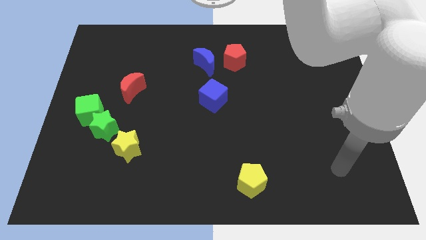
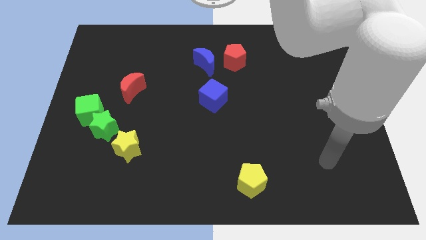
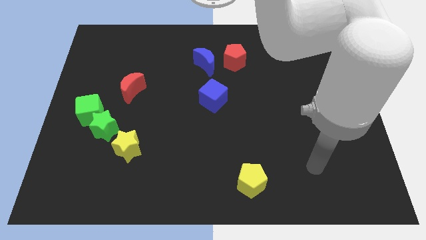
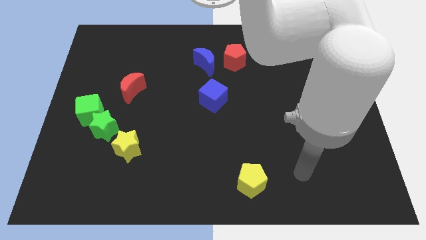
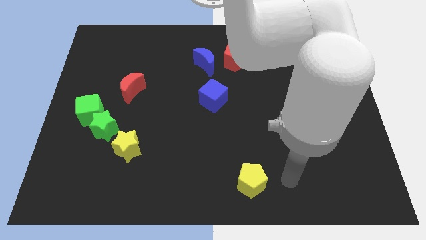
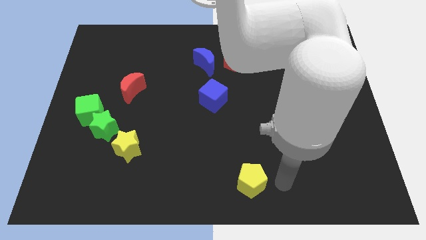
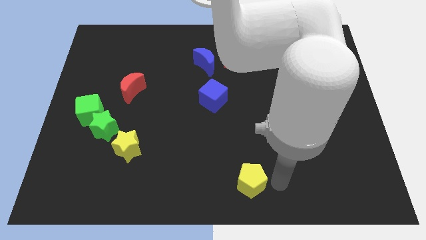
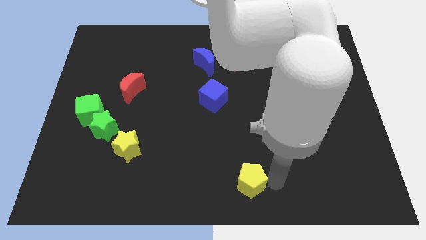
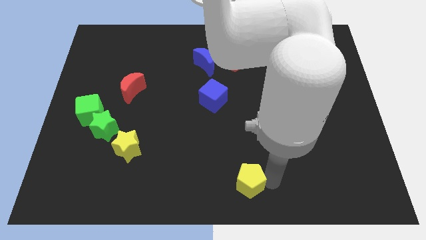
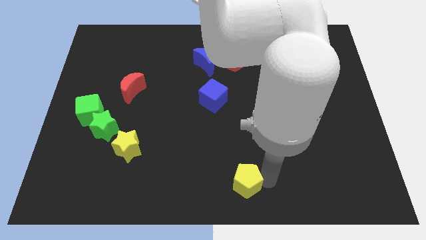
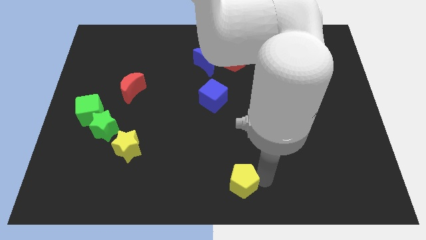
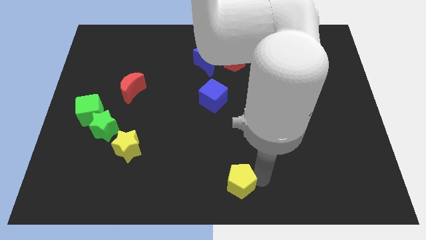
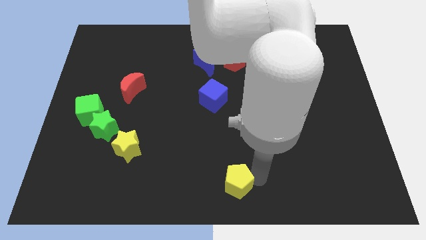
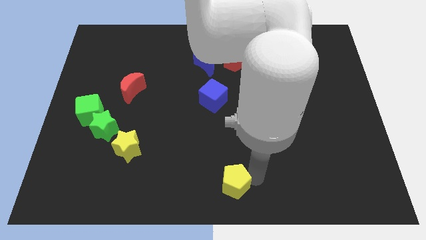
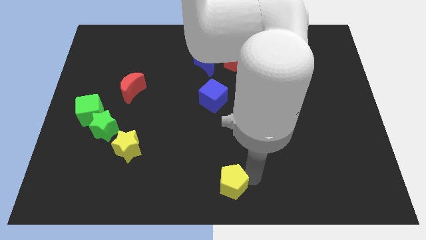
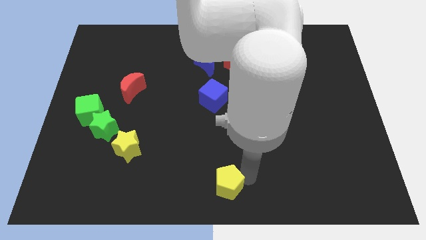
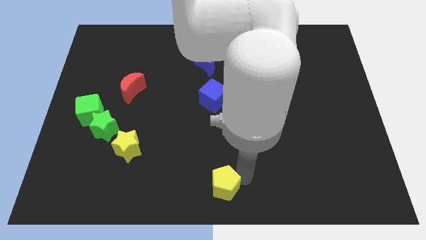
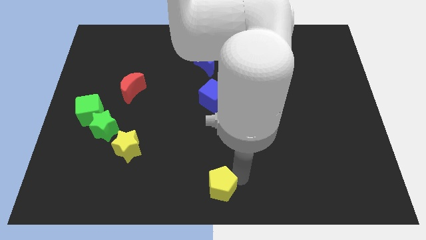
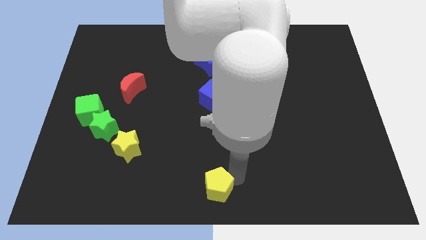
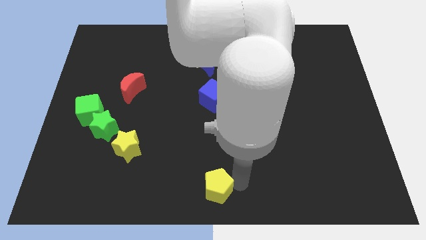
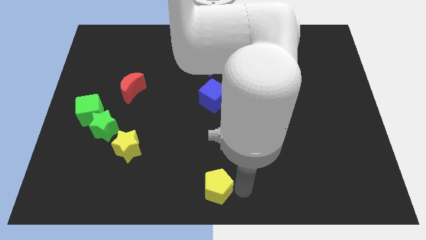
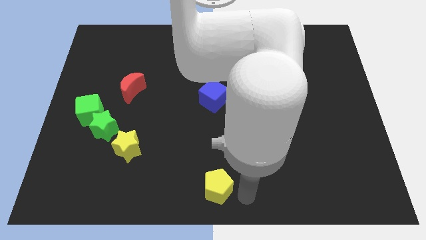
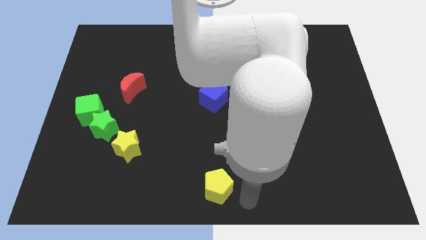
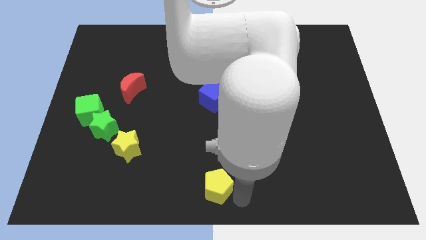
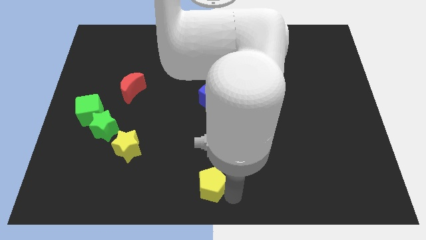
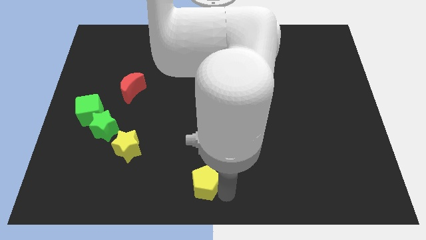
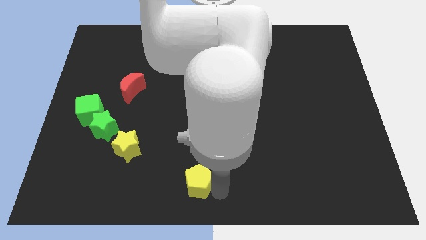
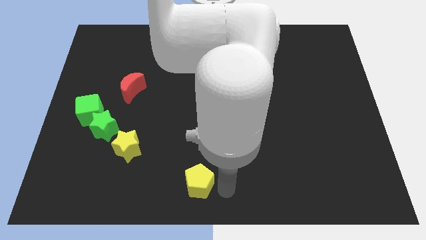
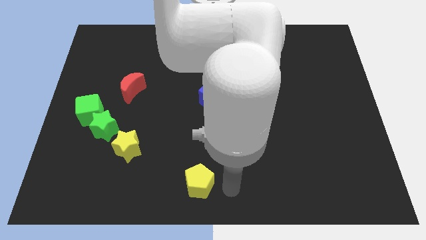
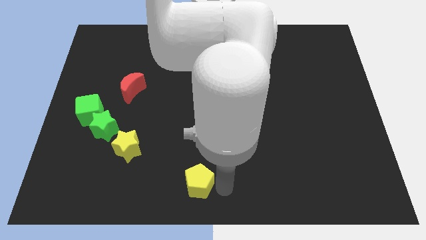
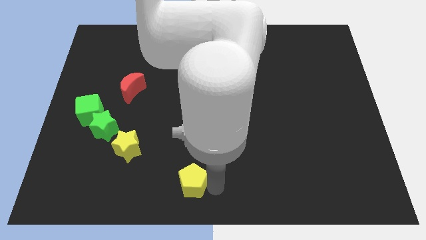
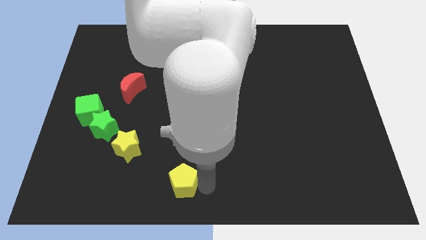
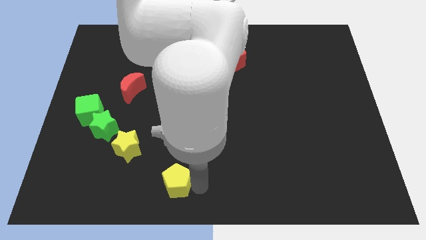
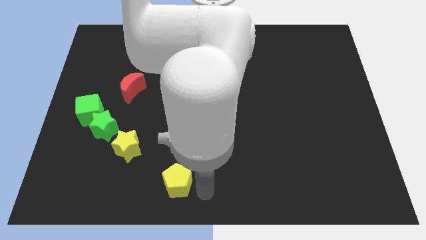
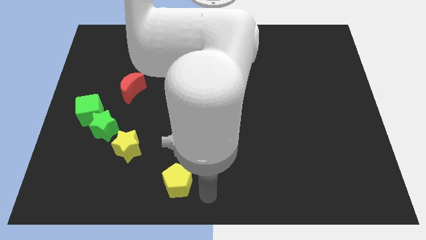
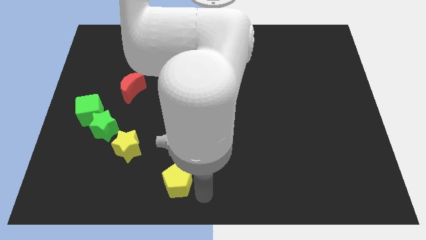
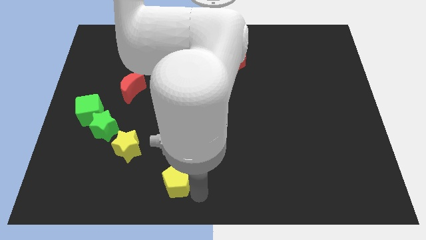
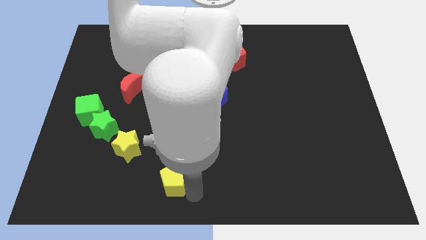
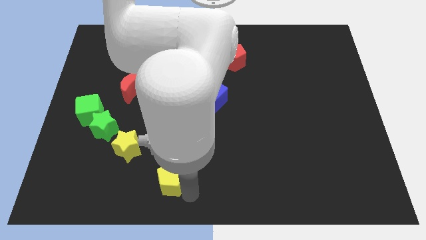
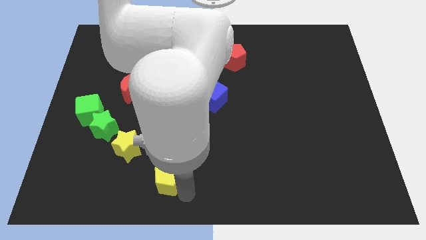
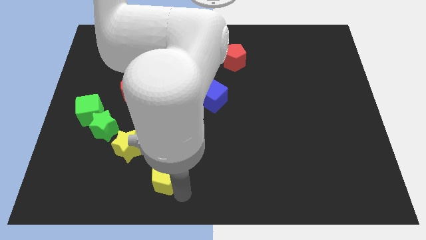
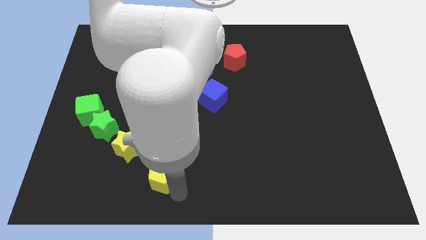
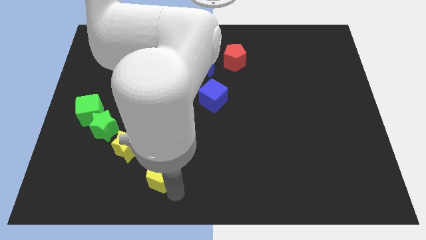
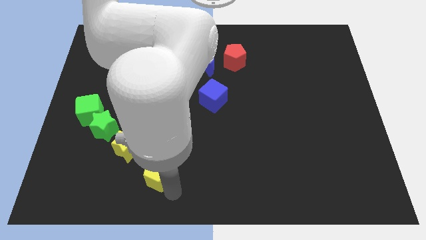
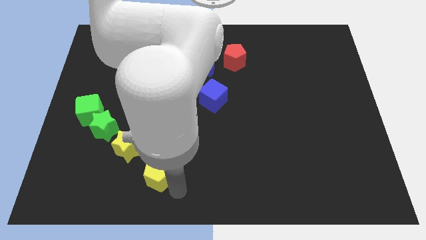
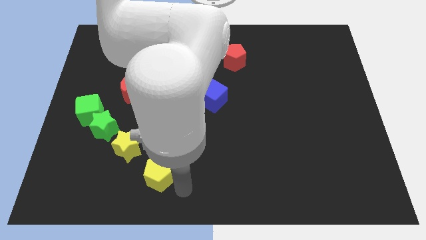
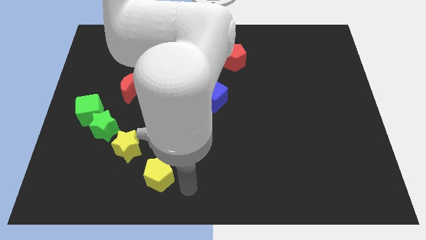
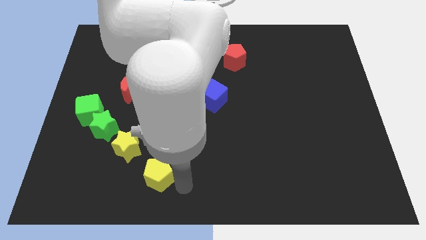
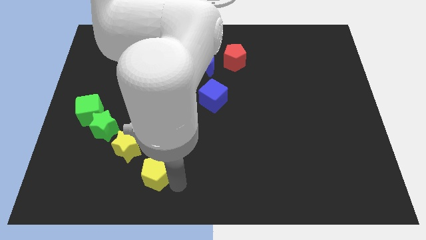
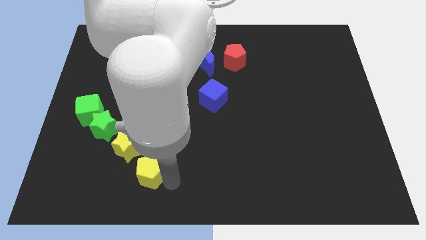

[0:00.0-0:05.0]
push the yellow pentagon left

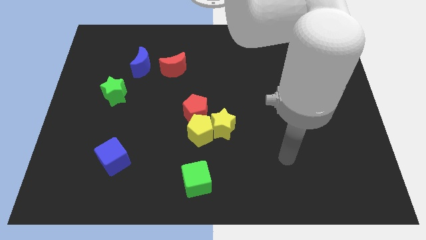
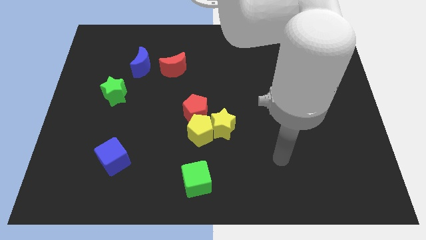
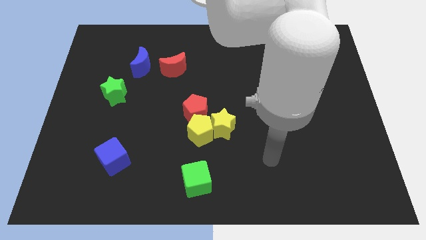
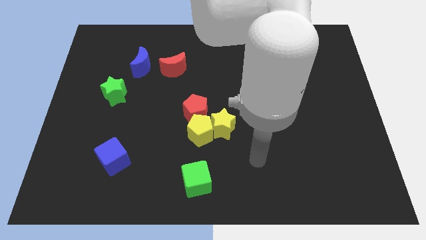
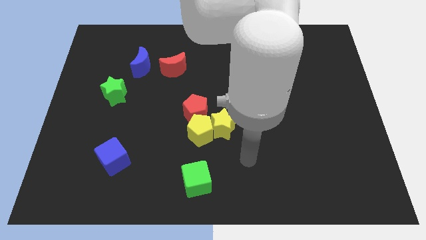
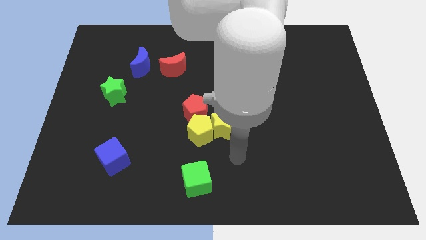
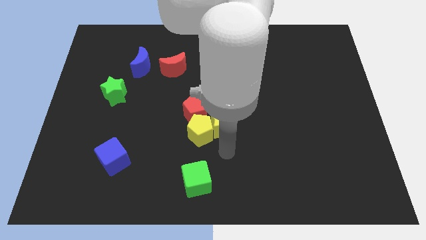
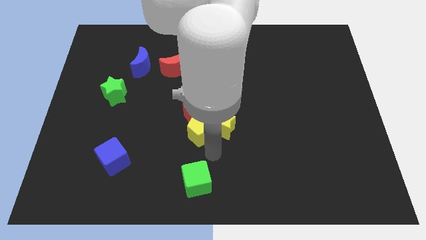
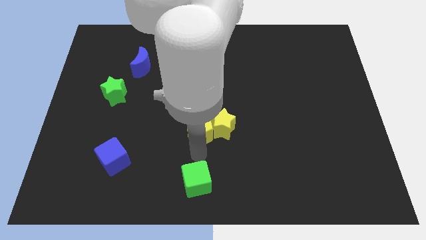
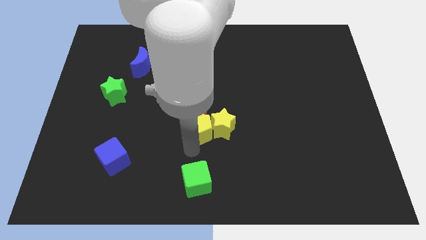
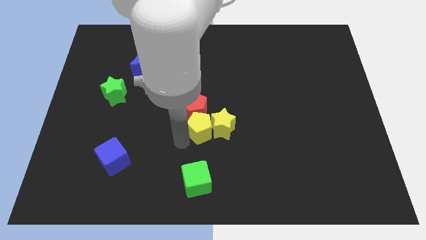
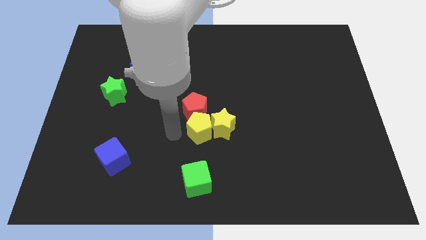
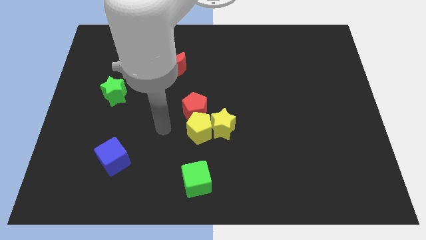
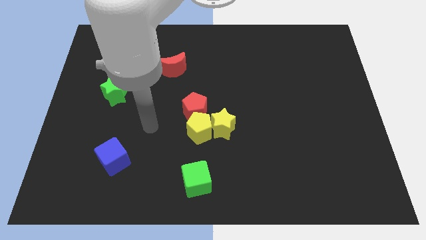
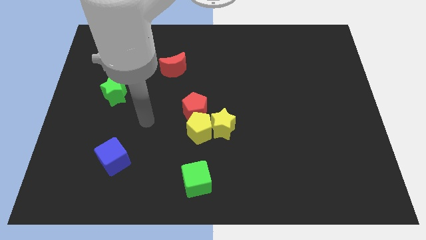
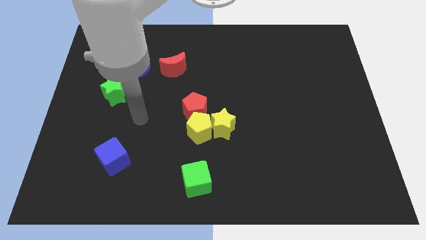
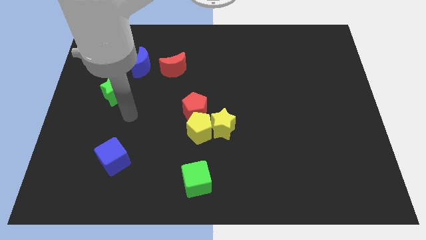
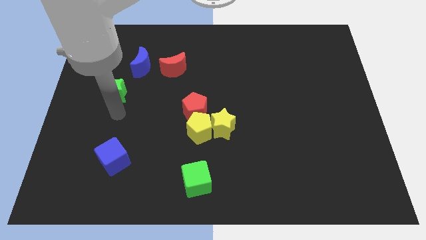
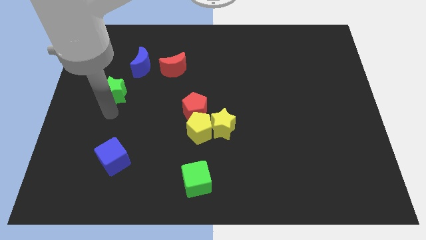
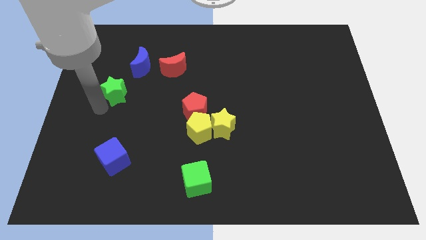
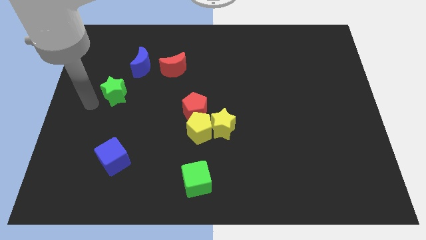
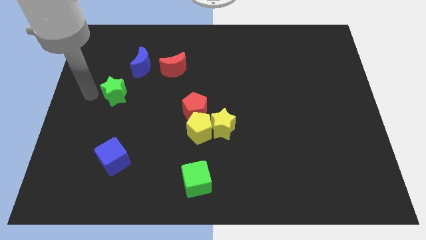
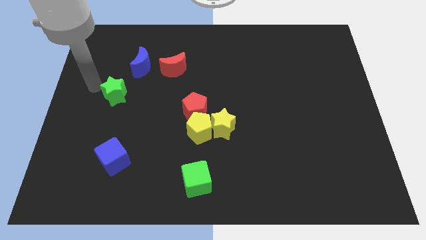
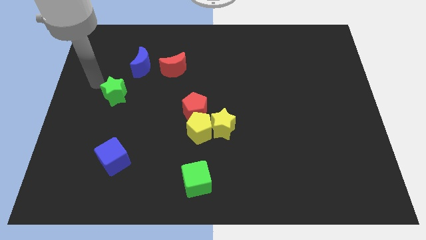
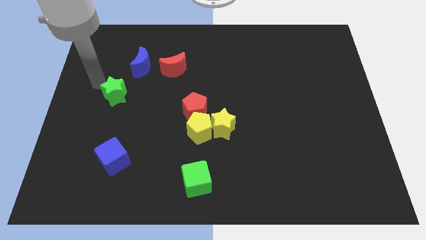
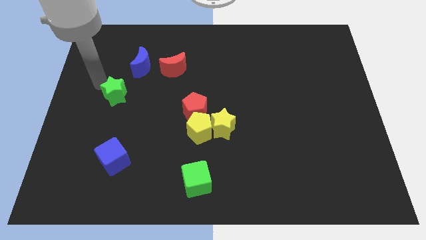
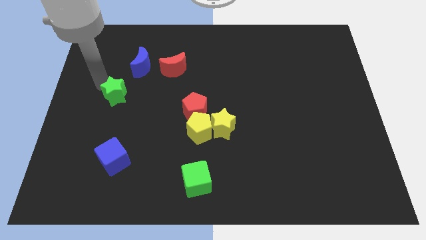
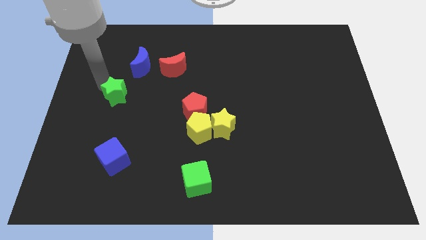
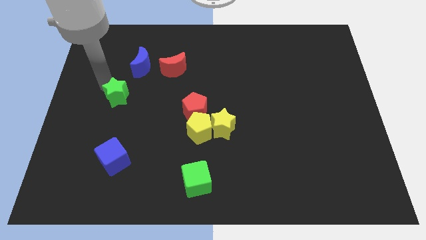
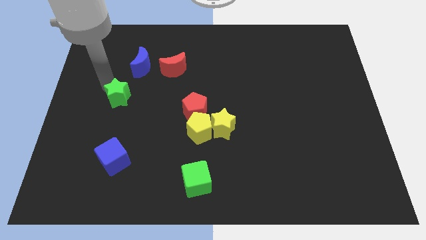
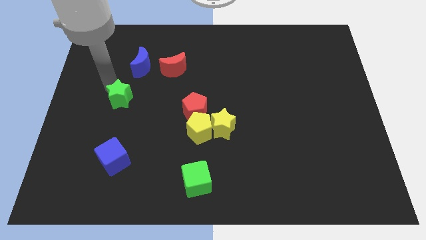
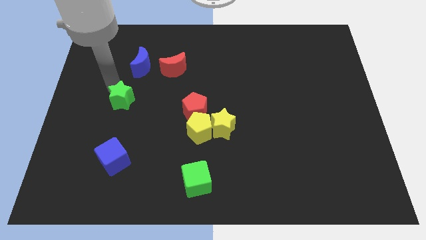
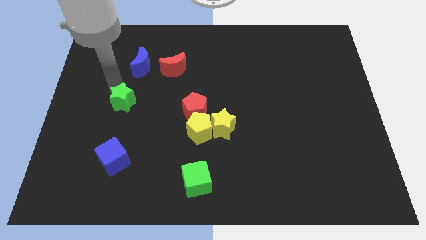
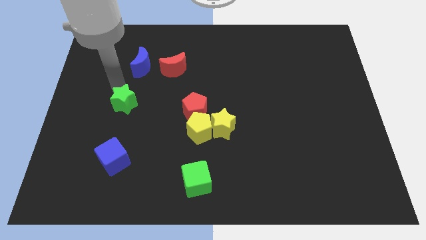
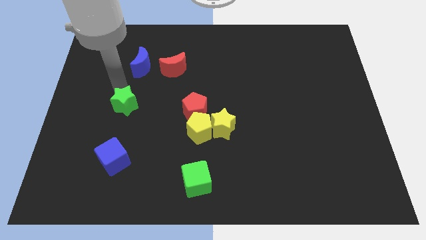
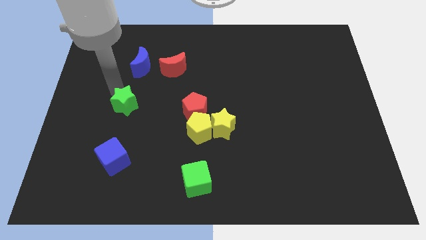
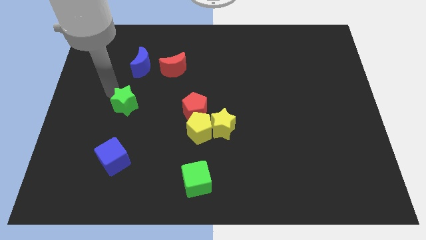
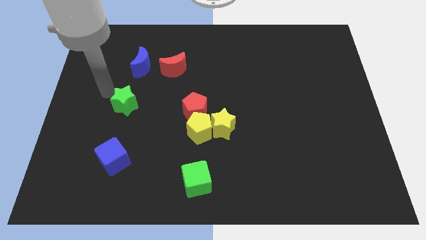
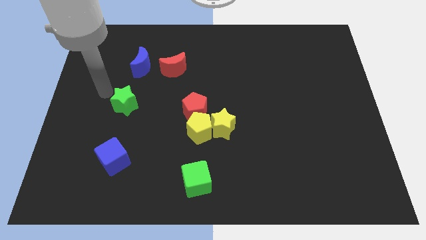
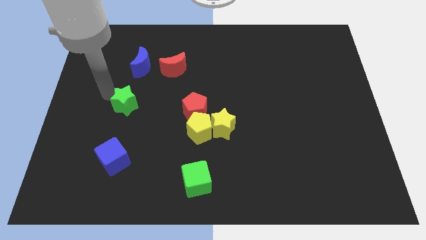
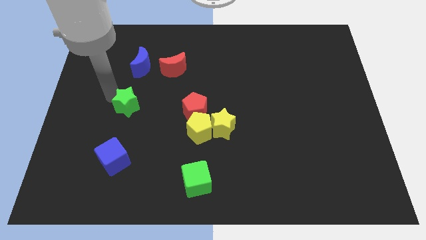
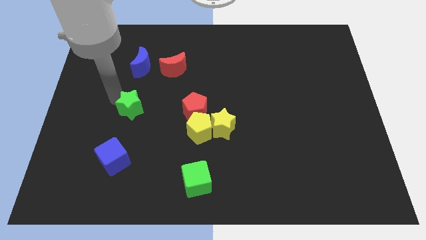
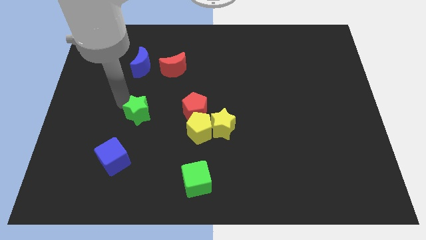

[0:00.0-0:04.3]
slightly push the green star down and to the right diagonally
